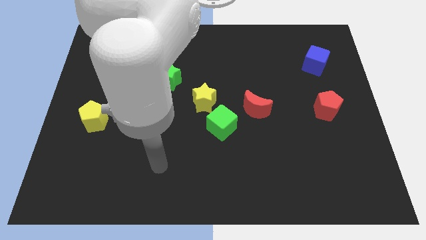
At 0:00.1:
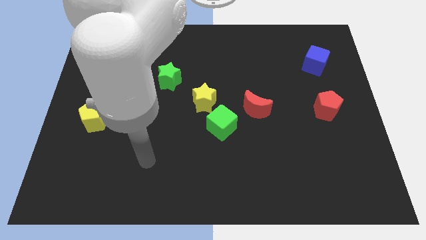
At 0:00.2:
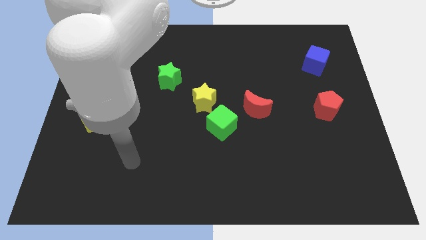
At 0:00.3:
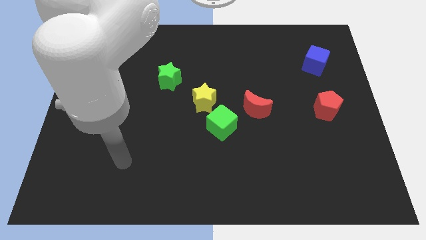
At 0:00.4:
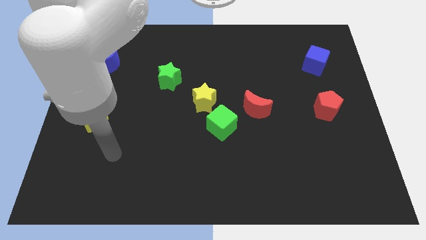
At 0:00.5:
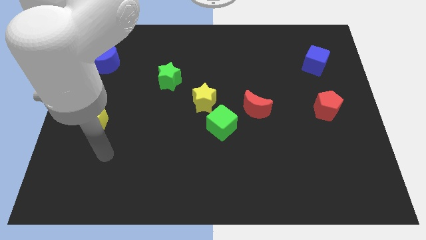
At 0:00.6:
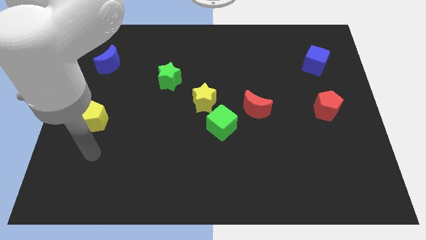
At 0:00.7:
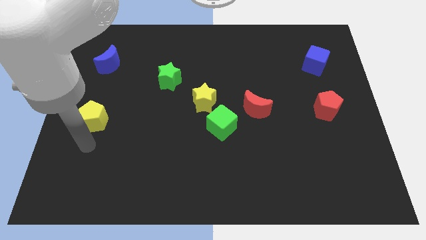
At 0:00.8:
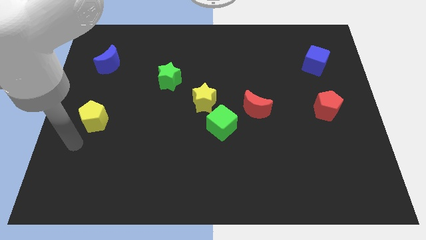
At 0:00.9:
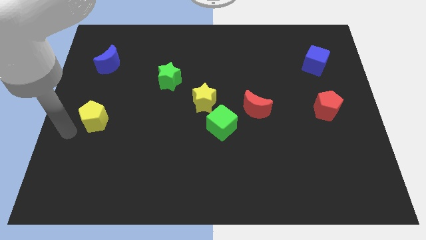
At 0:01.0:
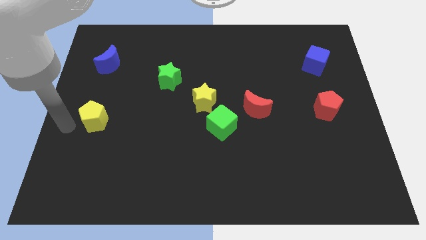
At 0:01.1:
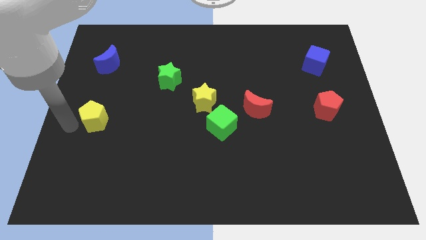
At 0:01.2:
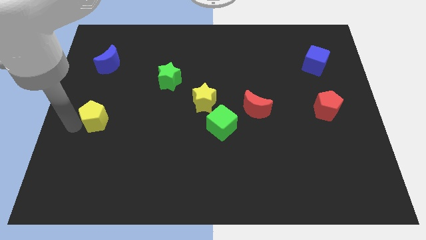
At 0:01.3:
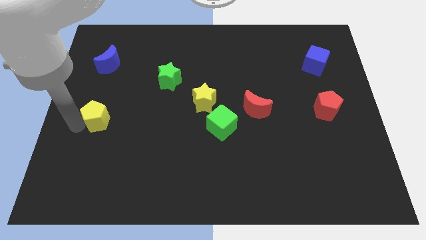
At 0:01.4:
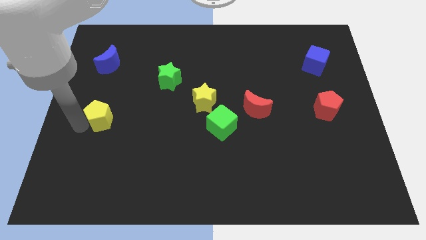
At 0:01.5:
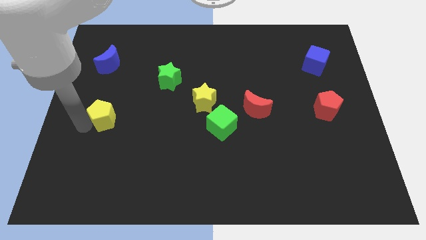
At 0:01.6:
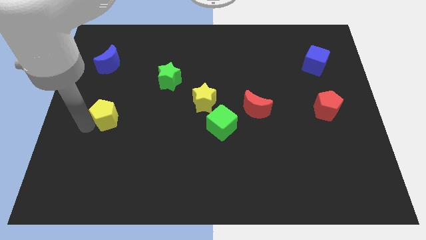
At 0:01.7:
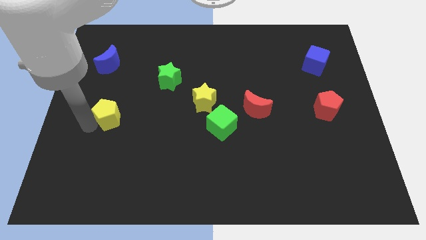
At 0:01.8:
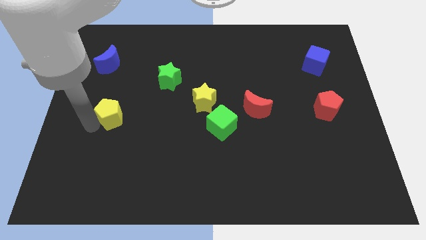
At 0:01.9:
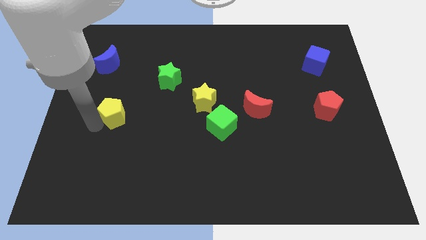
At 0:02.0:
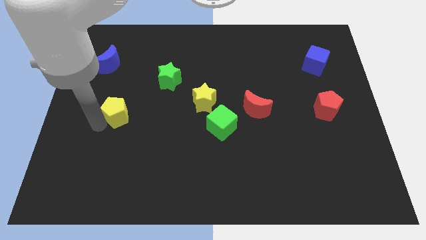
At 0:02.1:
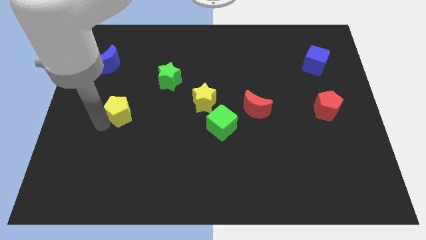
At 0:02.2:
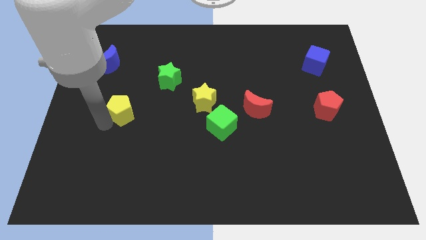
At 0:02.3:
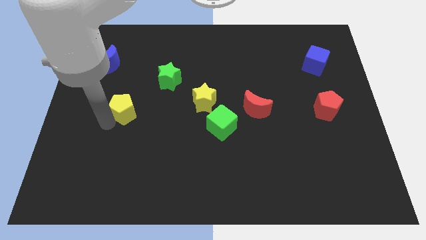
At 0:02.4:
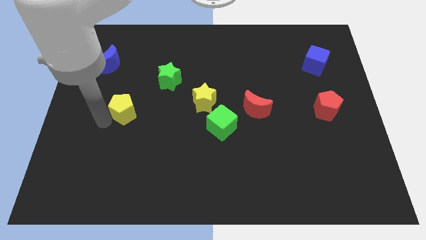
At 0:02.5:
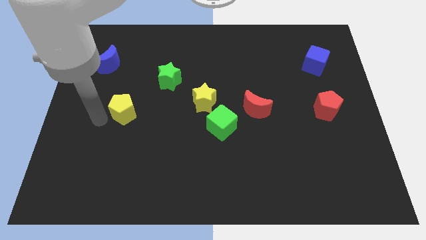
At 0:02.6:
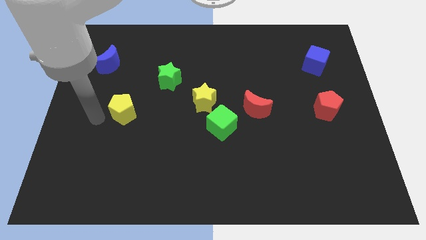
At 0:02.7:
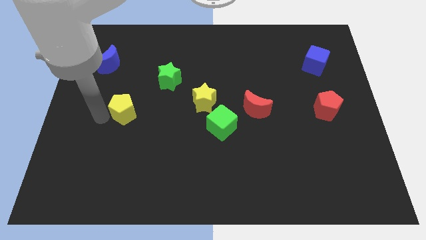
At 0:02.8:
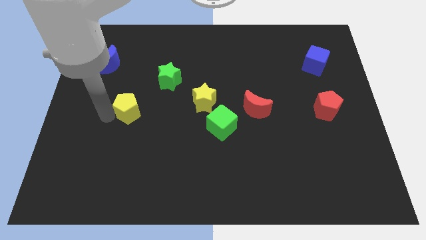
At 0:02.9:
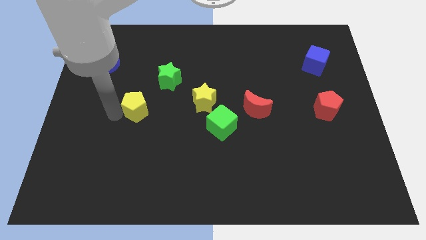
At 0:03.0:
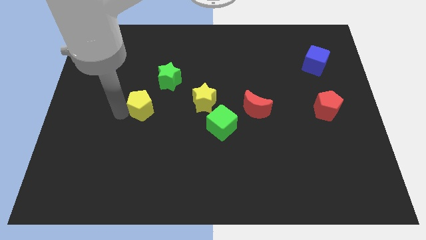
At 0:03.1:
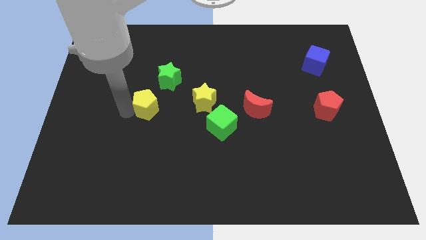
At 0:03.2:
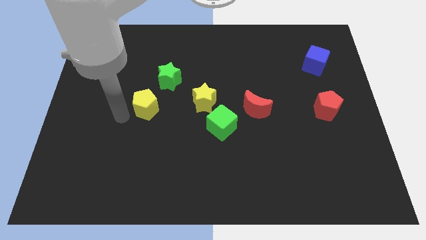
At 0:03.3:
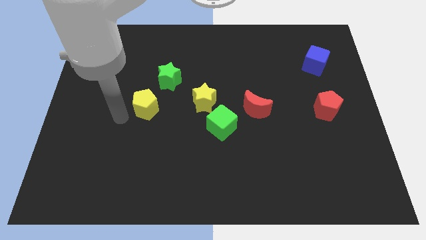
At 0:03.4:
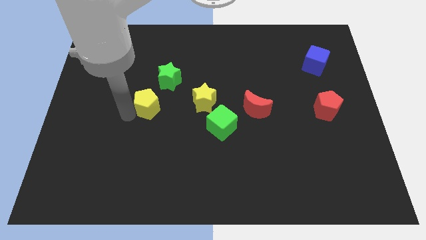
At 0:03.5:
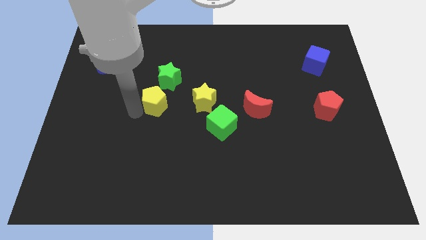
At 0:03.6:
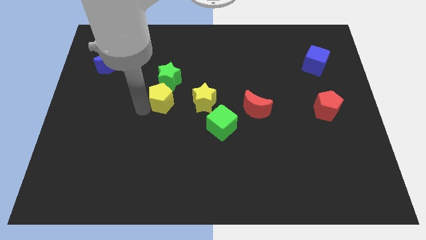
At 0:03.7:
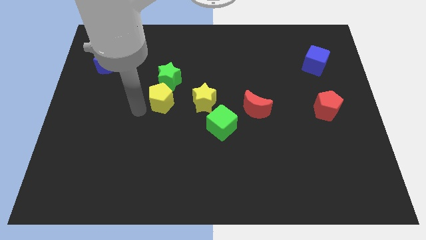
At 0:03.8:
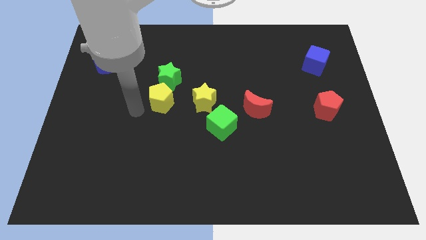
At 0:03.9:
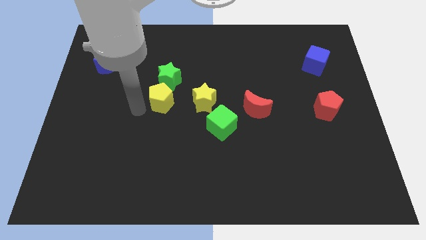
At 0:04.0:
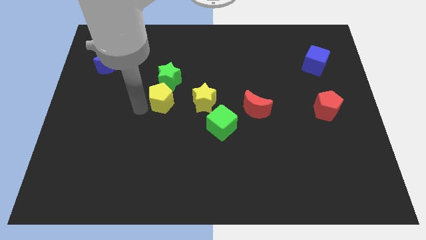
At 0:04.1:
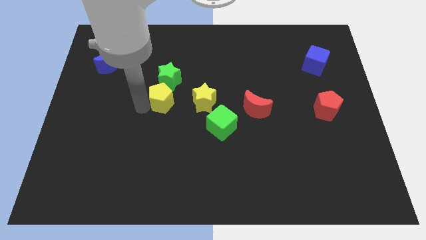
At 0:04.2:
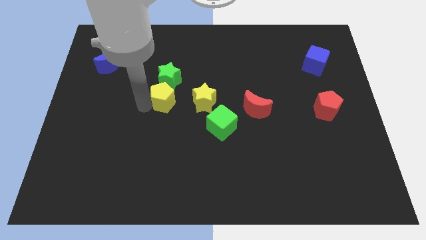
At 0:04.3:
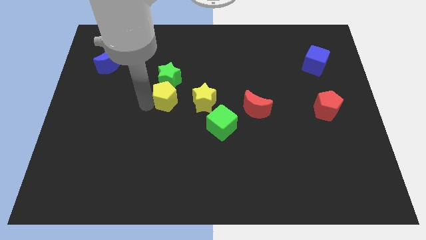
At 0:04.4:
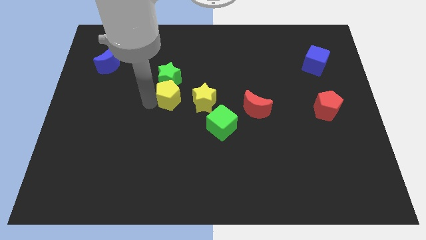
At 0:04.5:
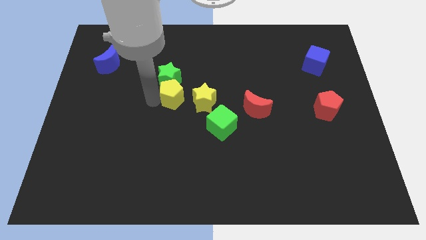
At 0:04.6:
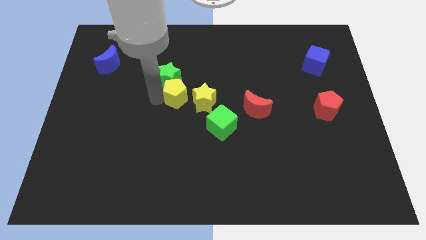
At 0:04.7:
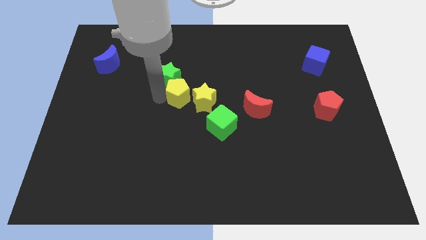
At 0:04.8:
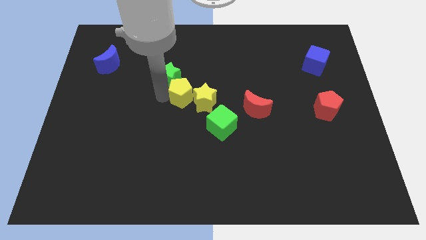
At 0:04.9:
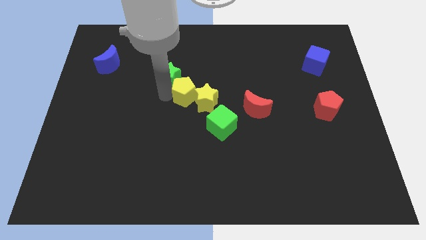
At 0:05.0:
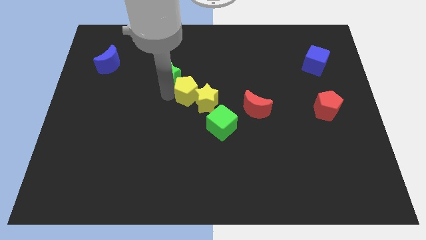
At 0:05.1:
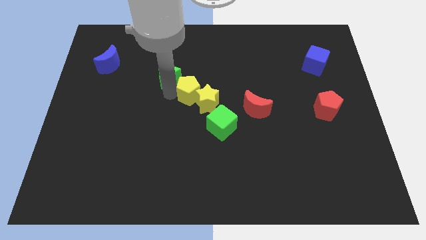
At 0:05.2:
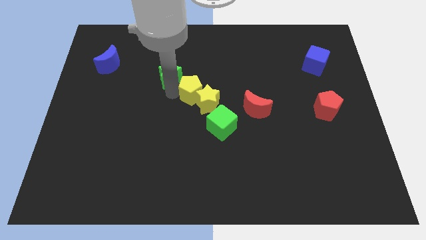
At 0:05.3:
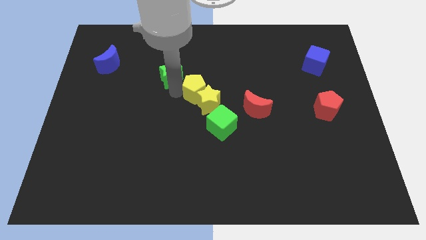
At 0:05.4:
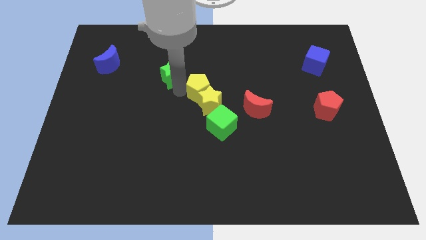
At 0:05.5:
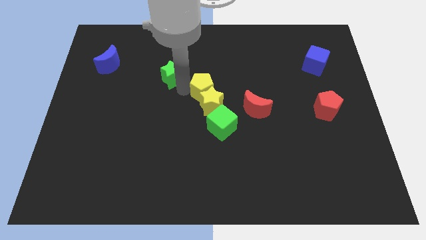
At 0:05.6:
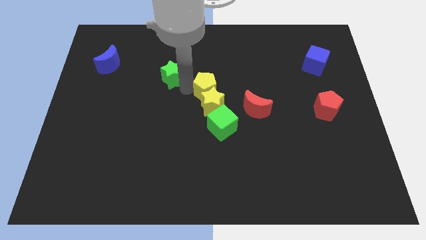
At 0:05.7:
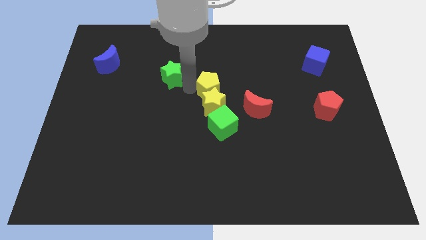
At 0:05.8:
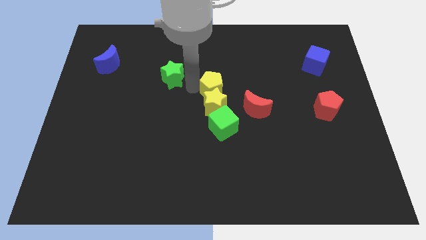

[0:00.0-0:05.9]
move the yellow pentagon to the top left of the red moon

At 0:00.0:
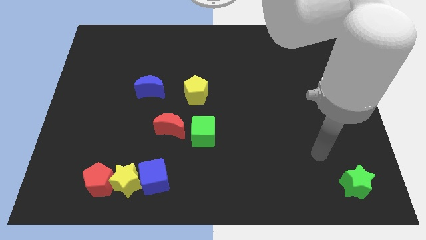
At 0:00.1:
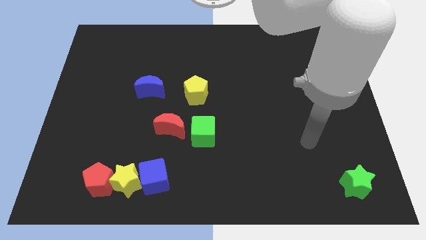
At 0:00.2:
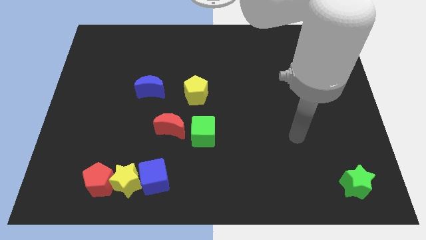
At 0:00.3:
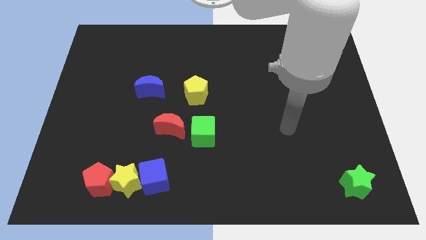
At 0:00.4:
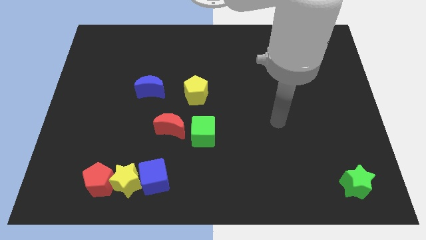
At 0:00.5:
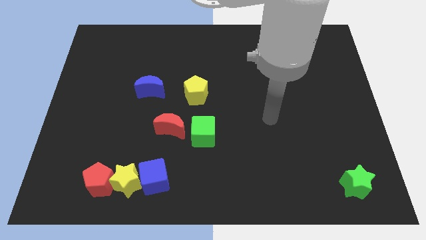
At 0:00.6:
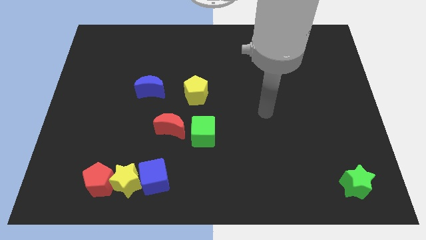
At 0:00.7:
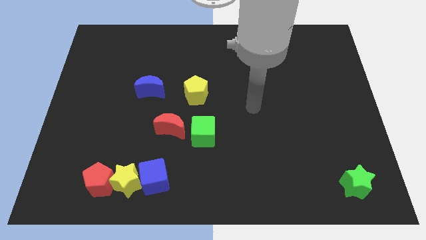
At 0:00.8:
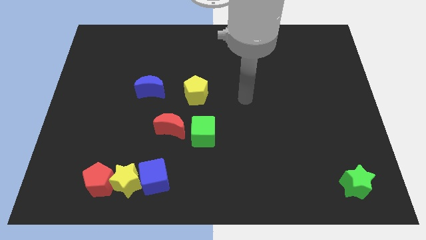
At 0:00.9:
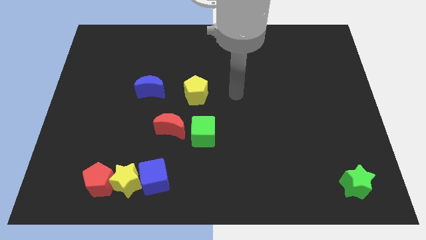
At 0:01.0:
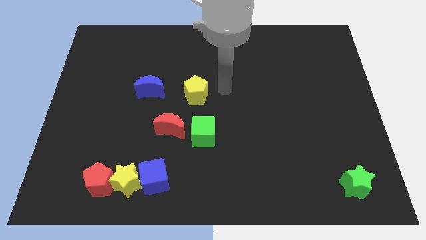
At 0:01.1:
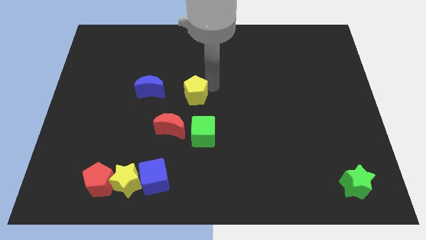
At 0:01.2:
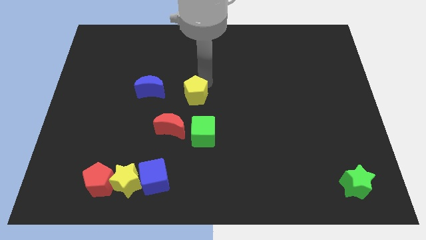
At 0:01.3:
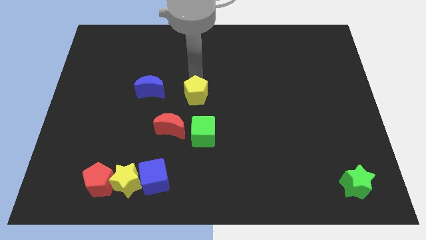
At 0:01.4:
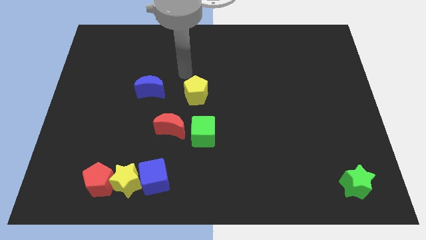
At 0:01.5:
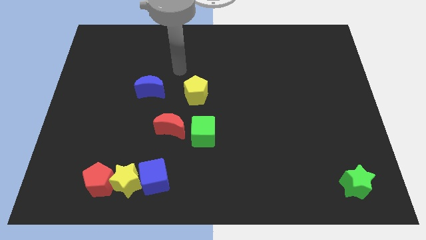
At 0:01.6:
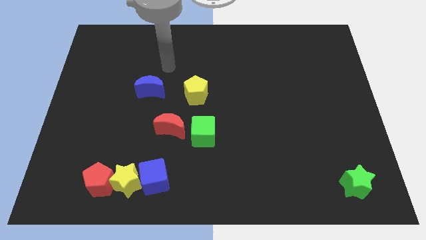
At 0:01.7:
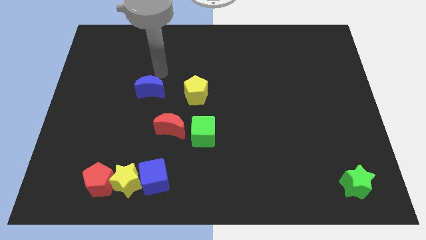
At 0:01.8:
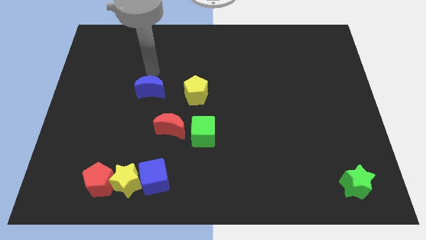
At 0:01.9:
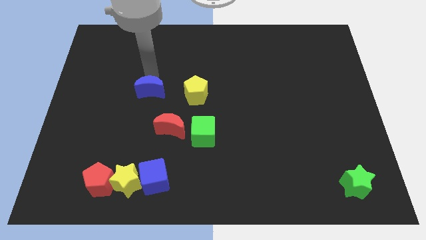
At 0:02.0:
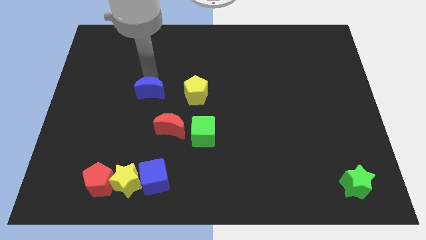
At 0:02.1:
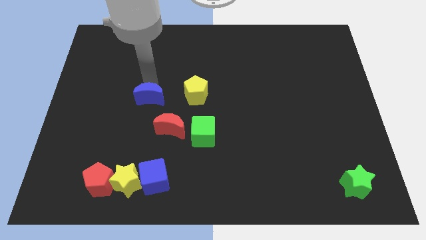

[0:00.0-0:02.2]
slide the blue moon diagonally up and to the left of the red moon
